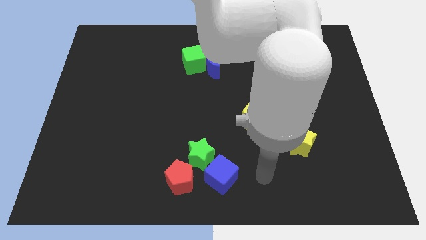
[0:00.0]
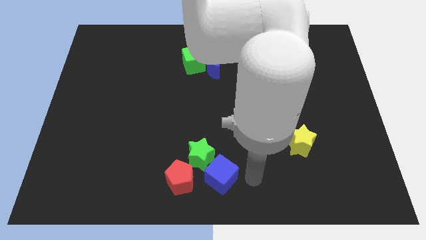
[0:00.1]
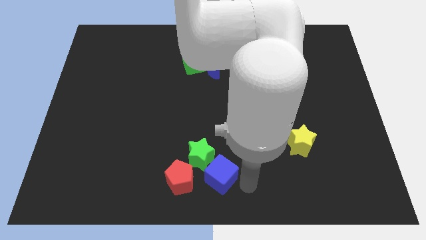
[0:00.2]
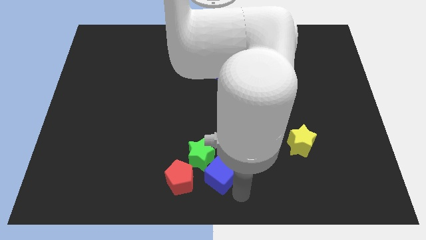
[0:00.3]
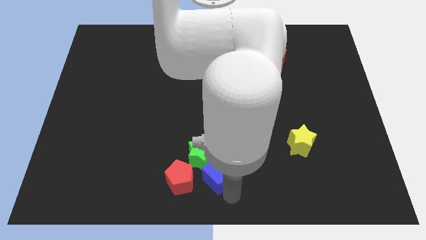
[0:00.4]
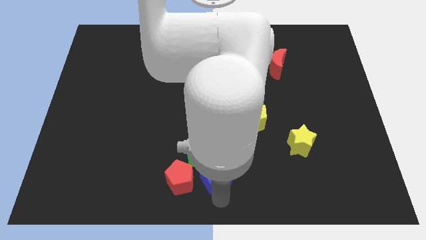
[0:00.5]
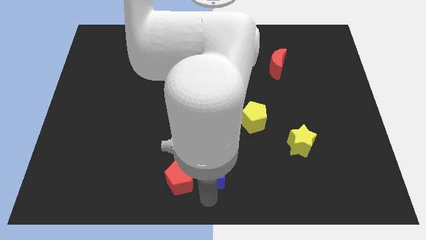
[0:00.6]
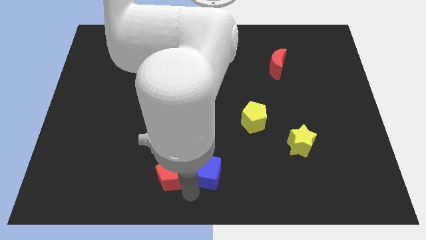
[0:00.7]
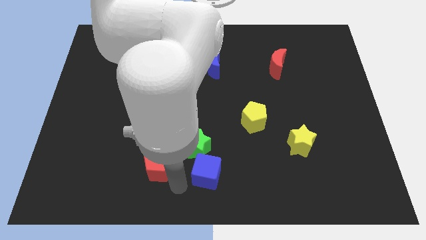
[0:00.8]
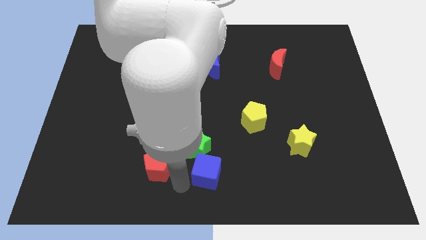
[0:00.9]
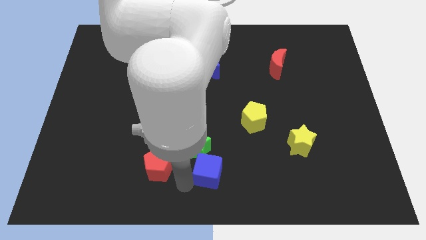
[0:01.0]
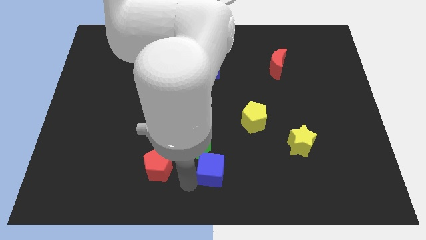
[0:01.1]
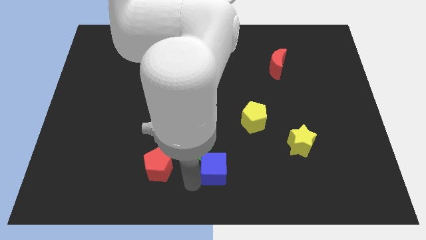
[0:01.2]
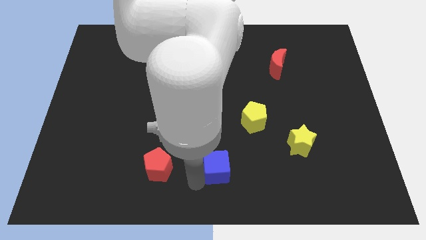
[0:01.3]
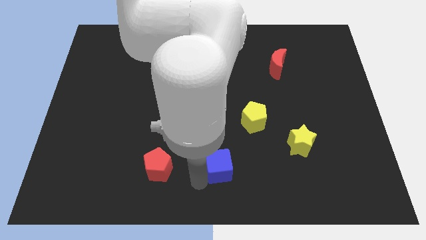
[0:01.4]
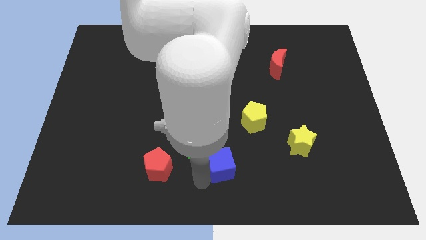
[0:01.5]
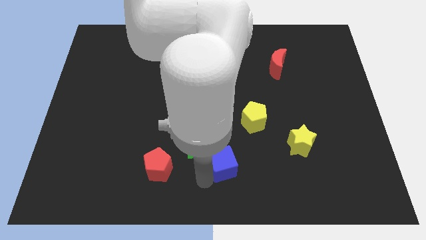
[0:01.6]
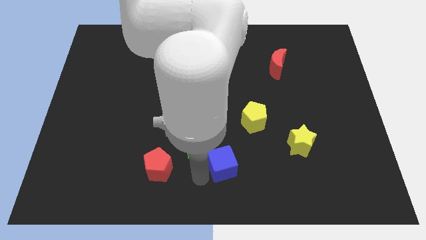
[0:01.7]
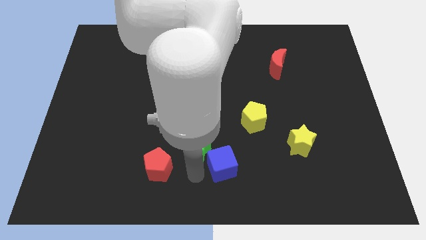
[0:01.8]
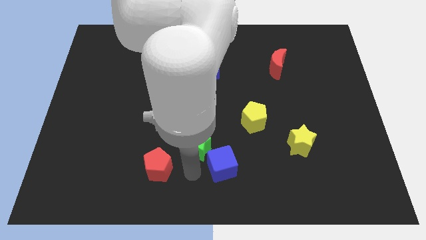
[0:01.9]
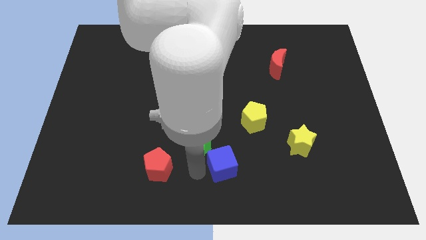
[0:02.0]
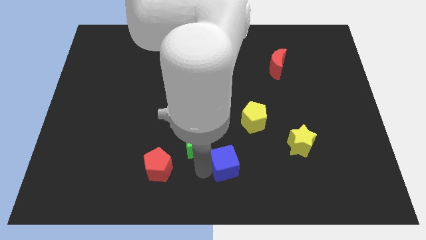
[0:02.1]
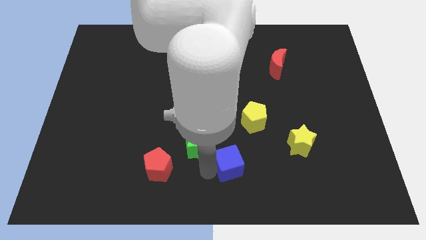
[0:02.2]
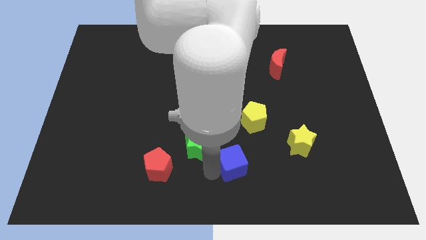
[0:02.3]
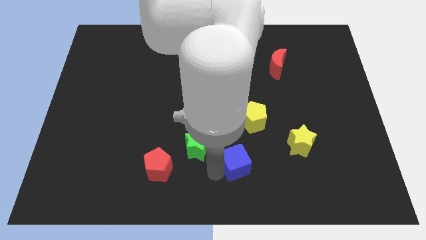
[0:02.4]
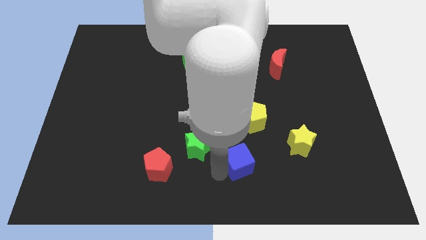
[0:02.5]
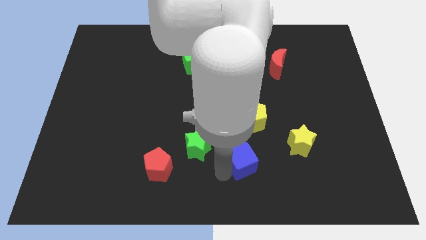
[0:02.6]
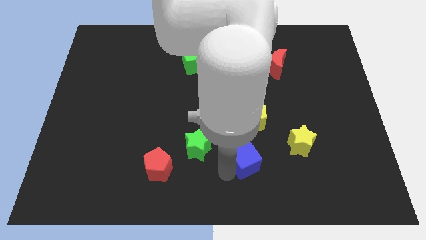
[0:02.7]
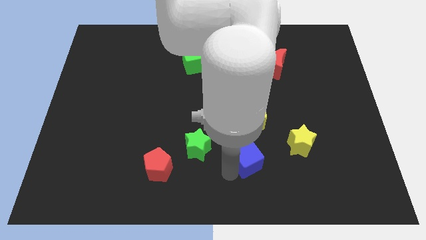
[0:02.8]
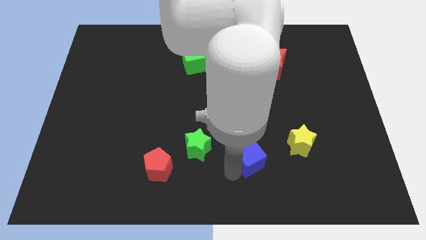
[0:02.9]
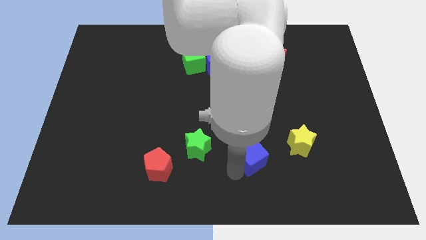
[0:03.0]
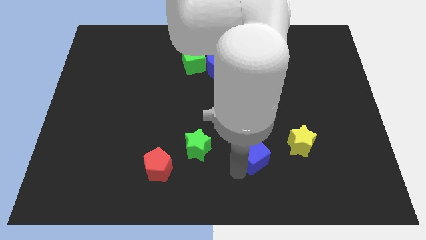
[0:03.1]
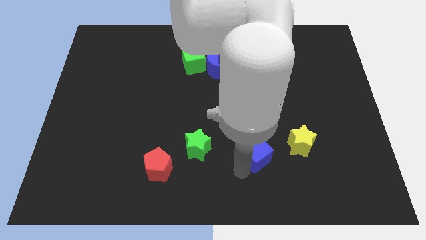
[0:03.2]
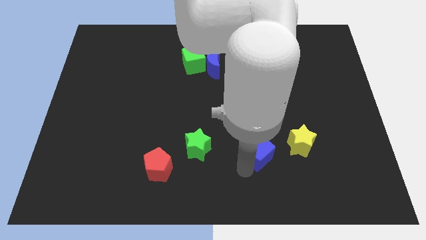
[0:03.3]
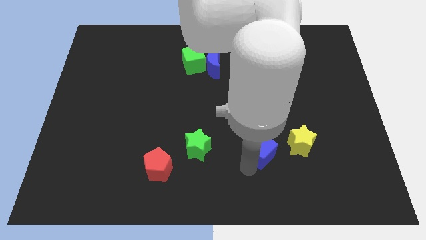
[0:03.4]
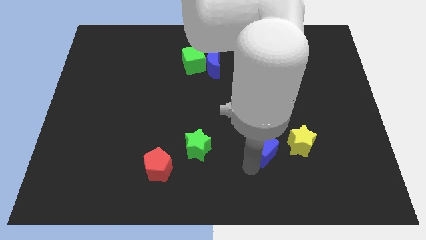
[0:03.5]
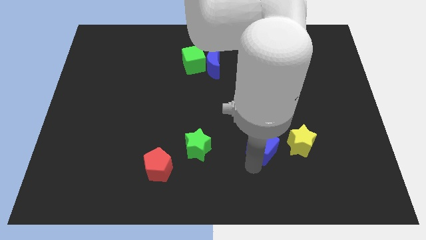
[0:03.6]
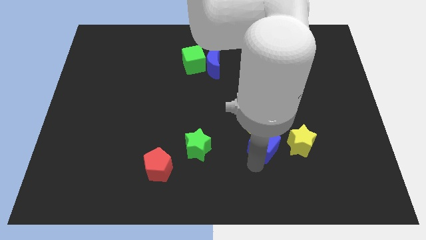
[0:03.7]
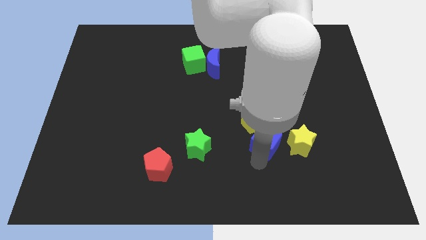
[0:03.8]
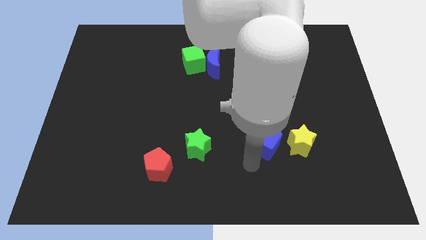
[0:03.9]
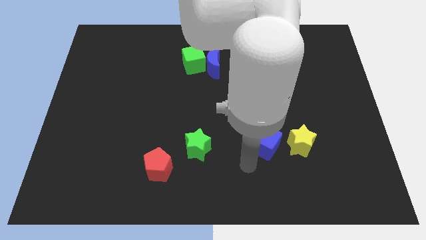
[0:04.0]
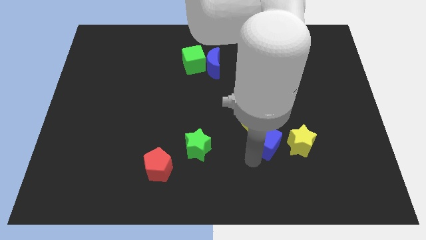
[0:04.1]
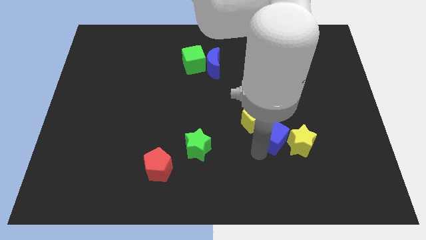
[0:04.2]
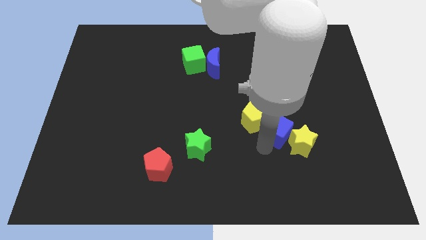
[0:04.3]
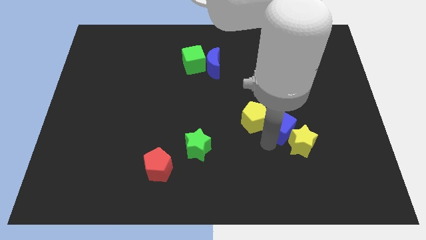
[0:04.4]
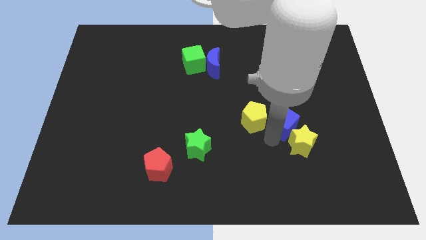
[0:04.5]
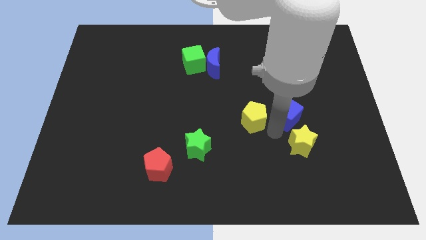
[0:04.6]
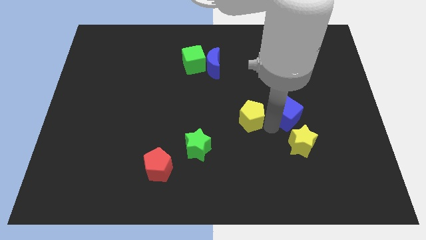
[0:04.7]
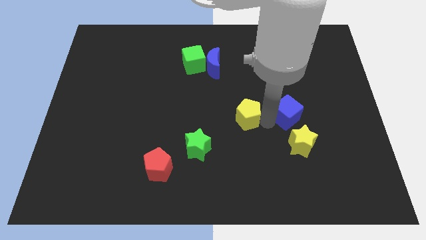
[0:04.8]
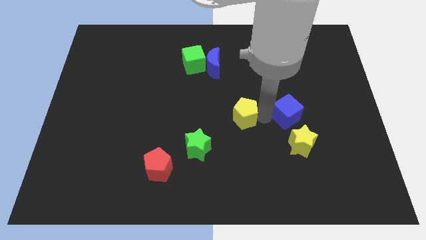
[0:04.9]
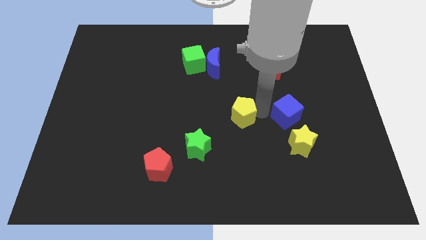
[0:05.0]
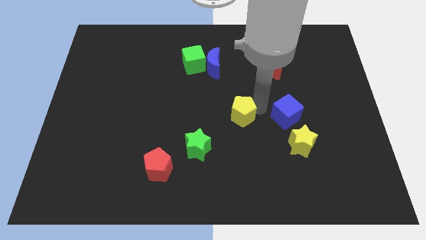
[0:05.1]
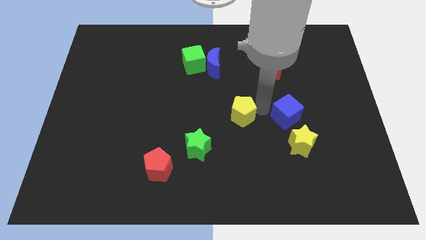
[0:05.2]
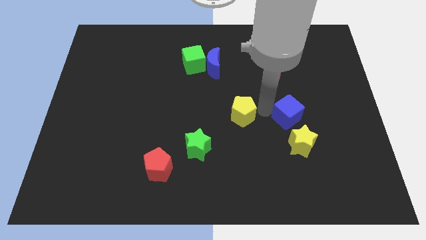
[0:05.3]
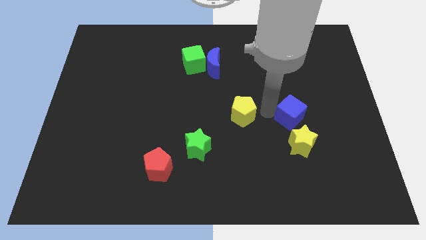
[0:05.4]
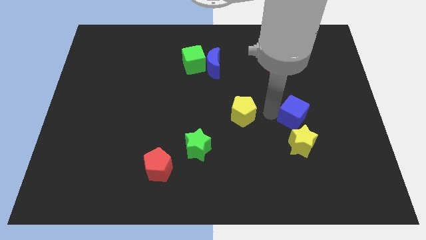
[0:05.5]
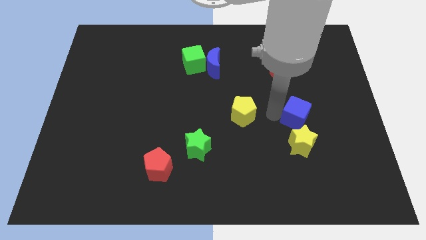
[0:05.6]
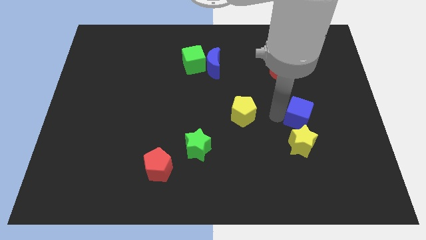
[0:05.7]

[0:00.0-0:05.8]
push the blue cube diagonally up and to the right of the yellow star
